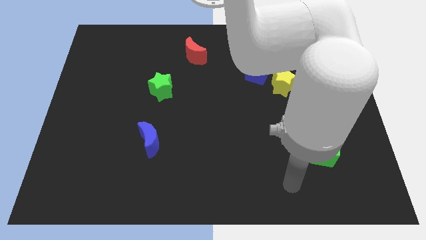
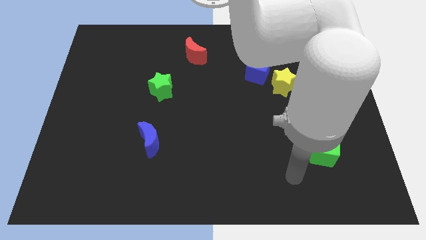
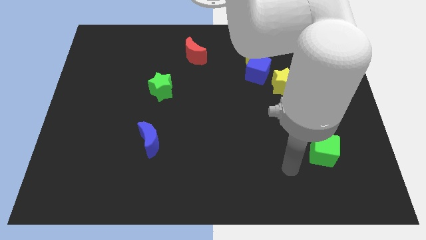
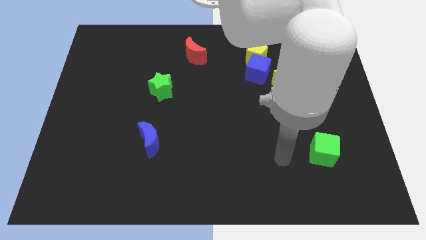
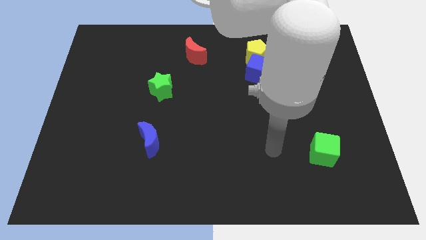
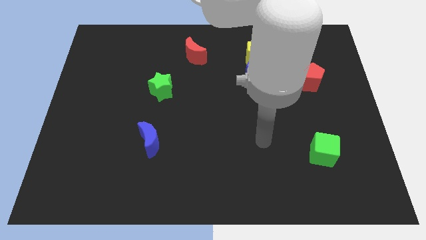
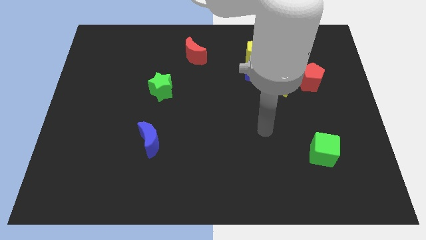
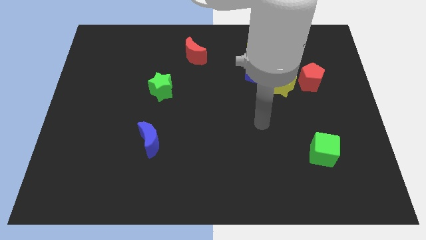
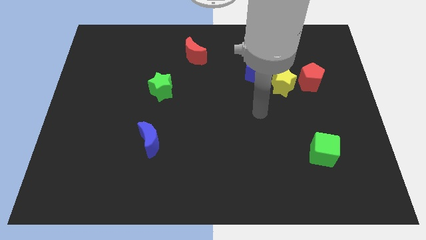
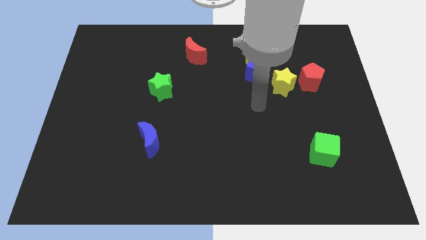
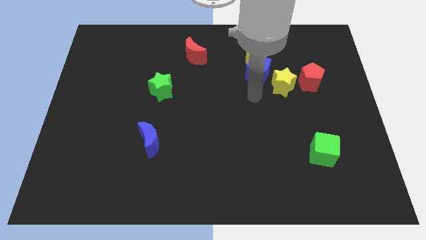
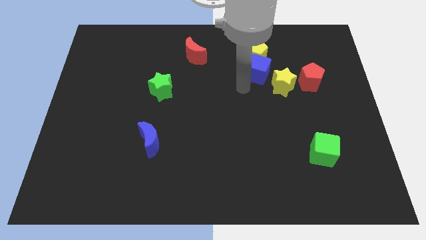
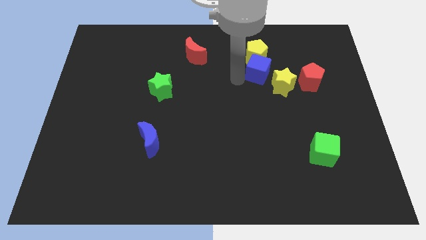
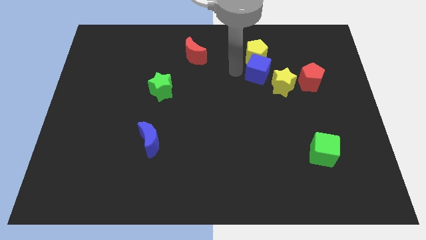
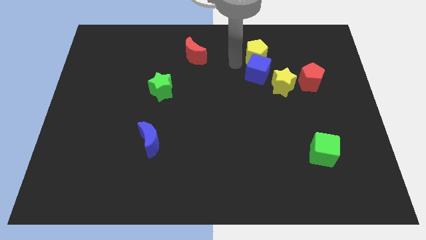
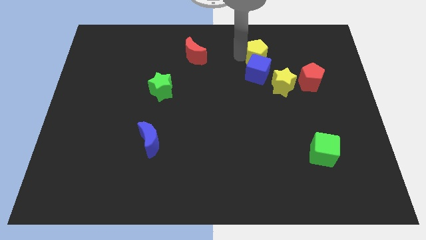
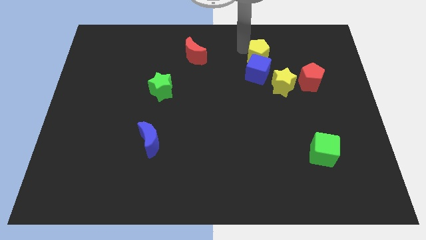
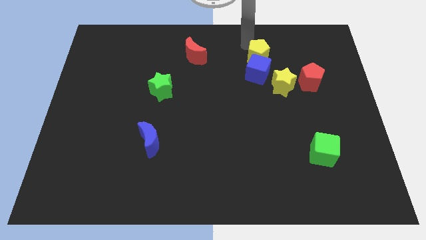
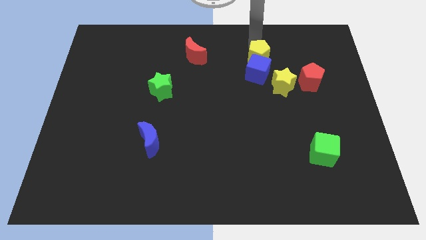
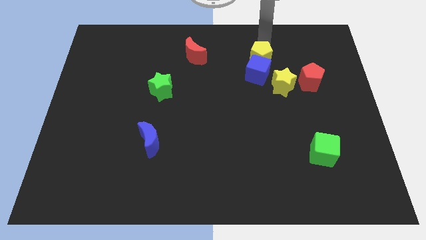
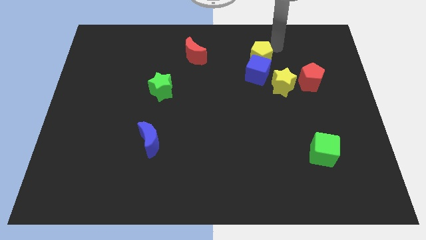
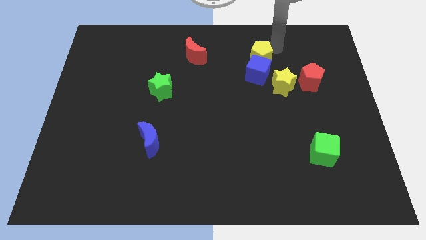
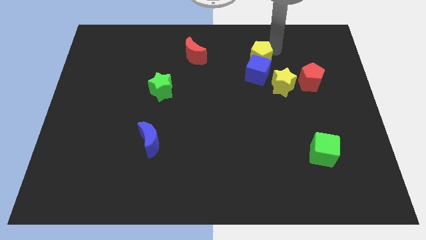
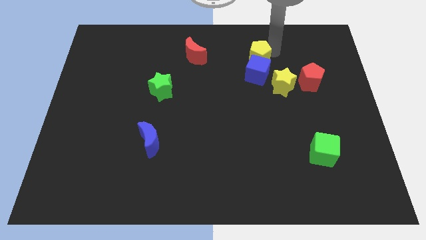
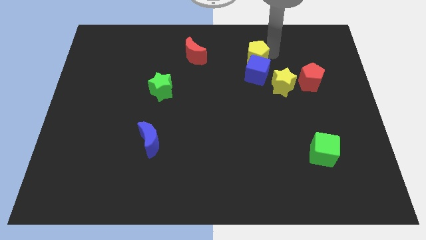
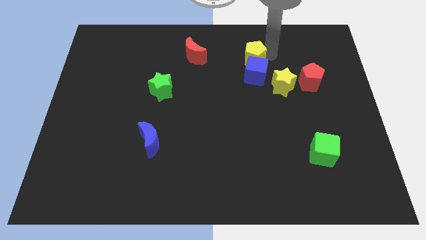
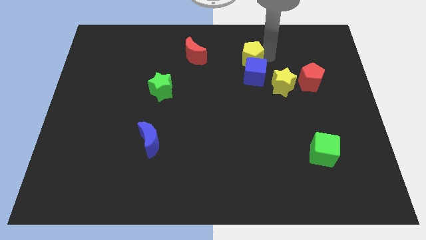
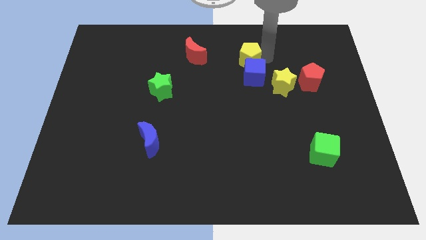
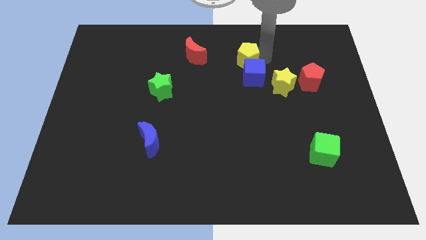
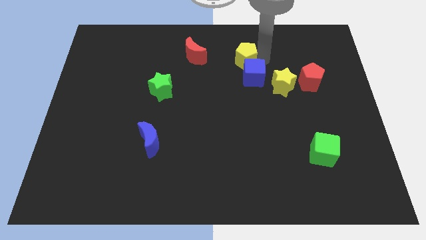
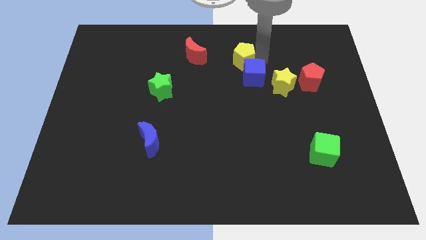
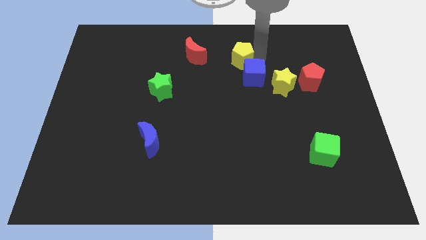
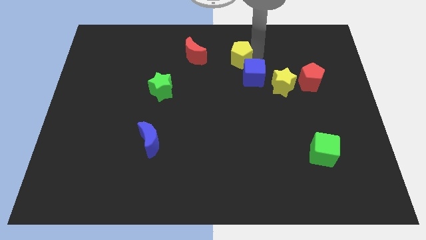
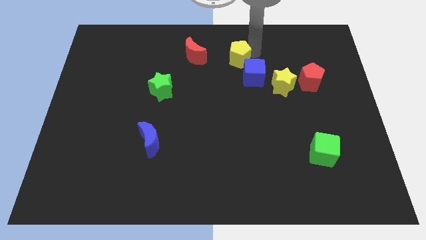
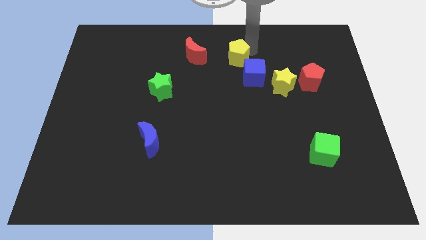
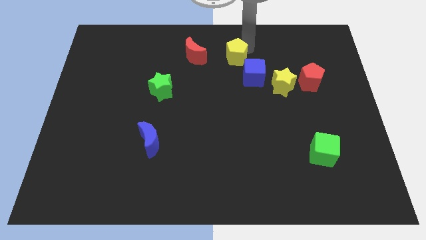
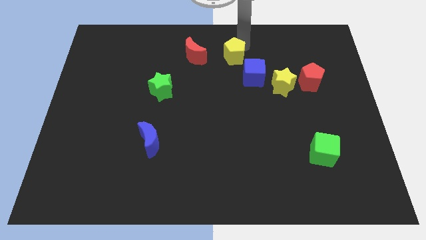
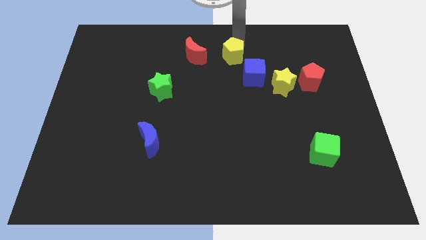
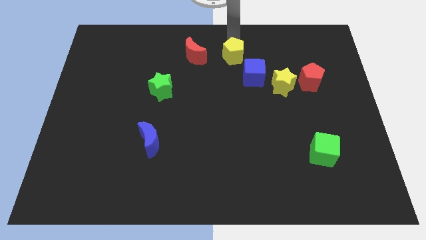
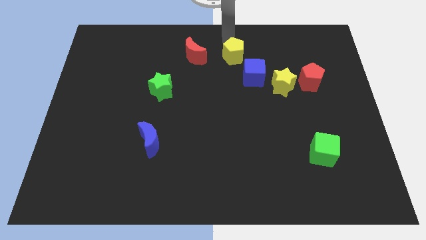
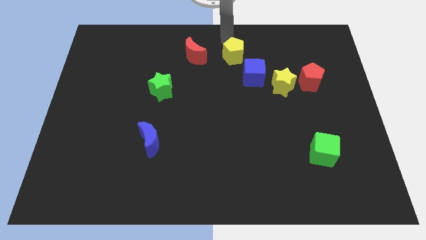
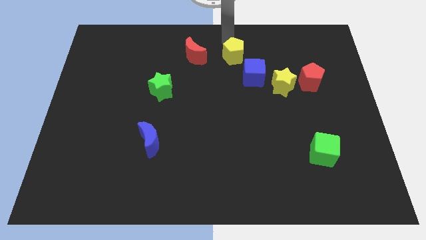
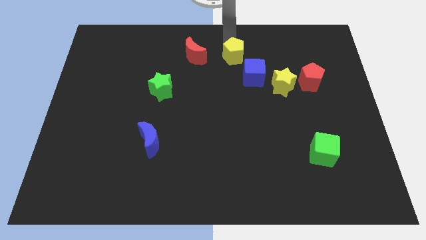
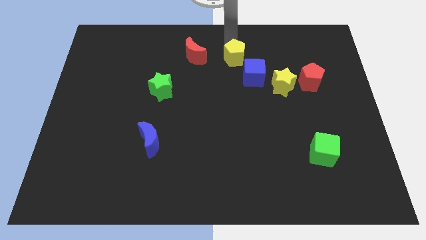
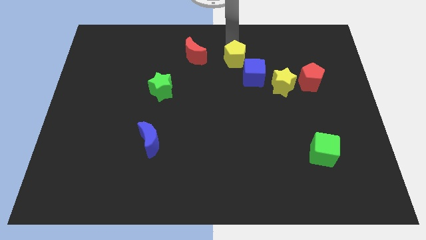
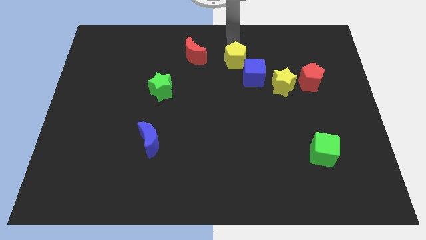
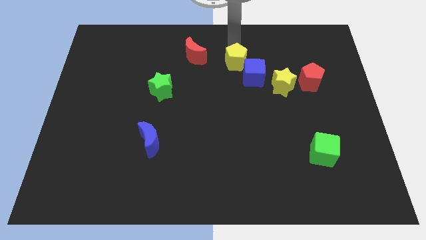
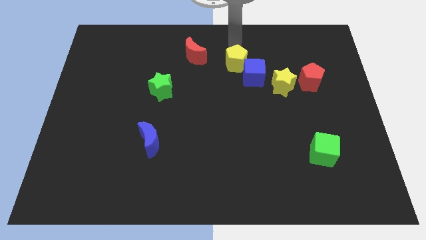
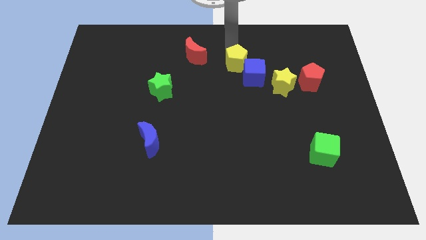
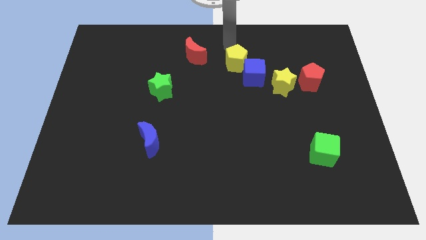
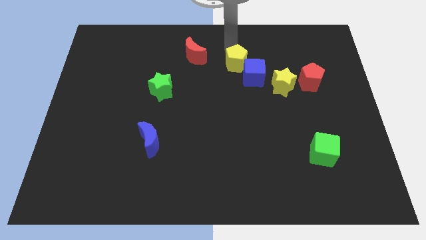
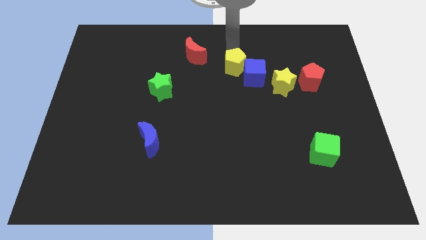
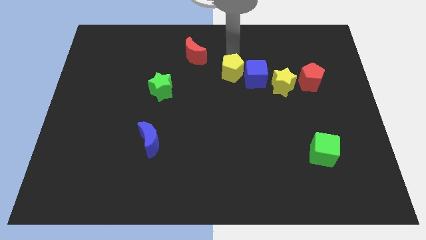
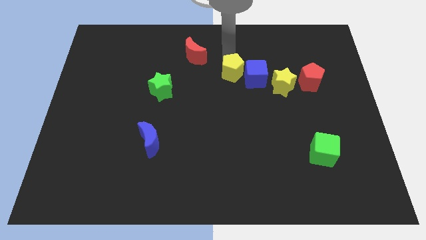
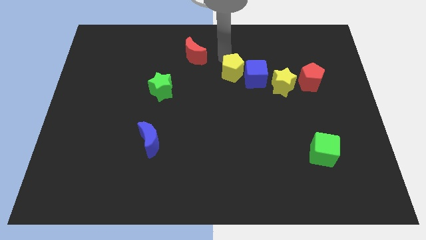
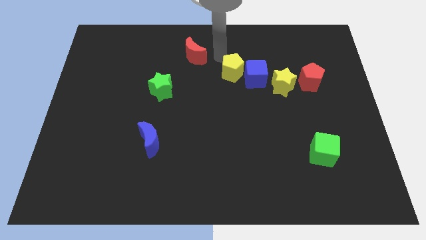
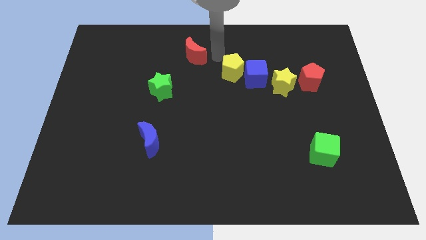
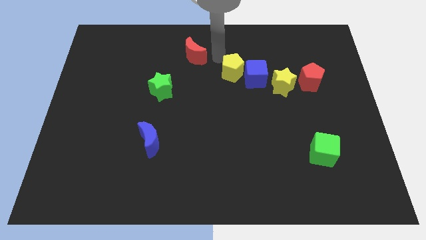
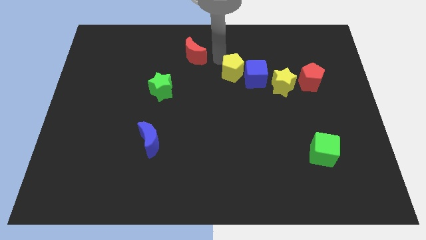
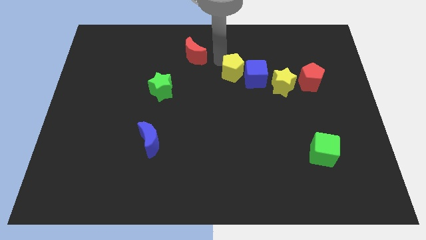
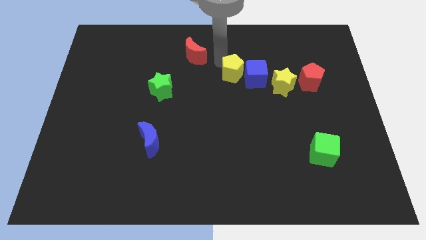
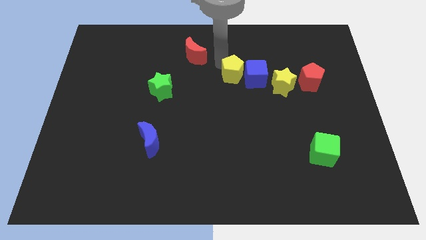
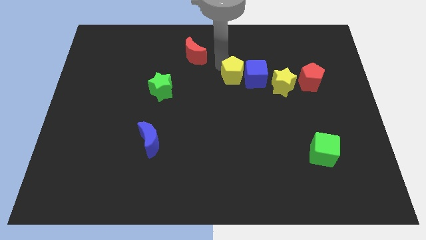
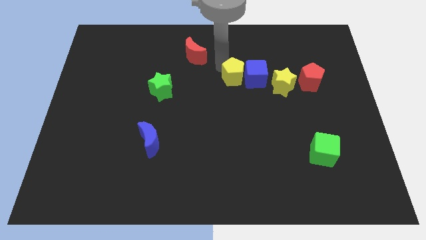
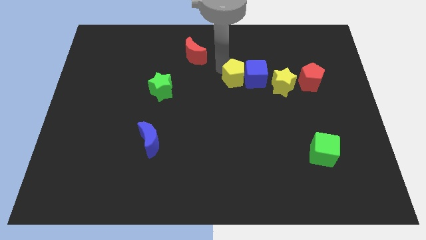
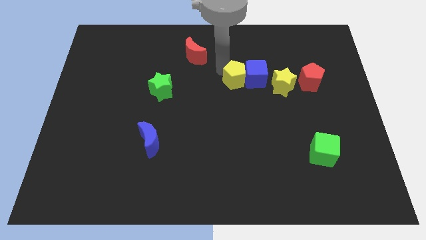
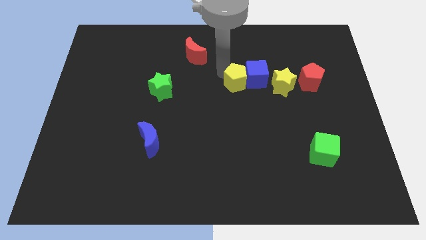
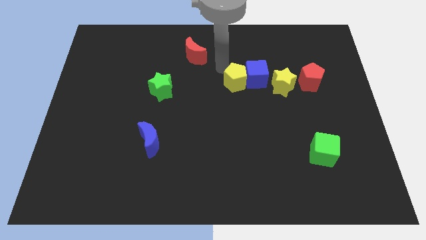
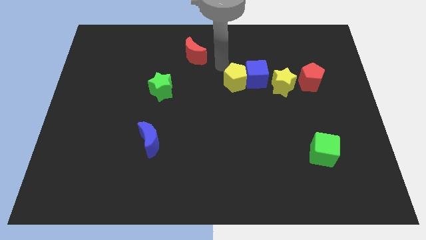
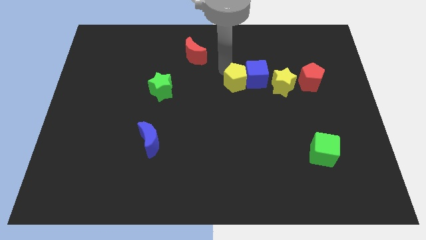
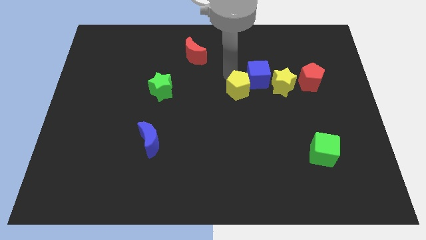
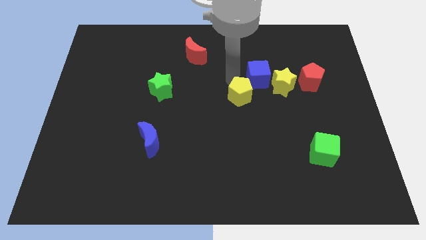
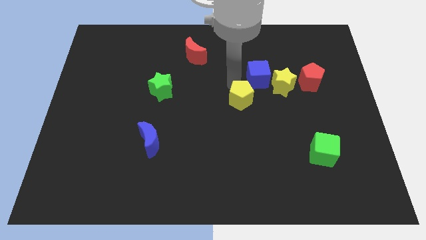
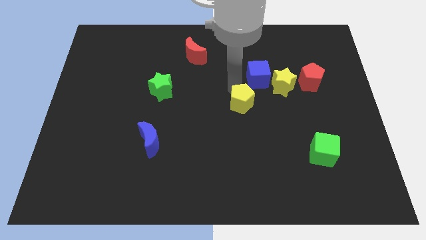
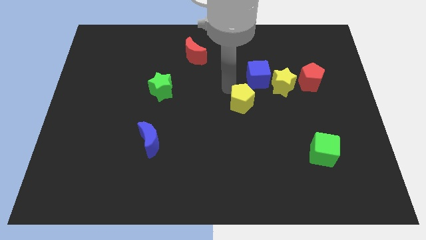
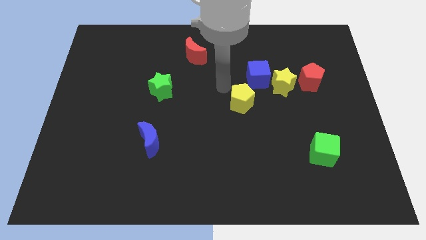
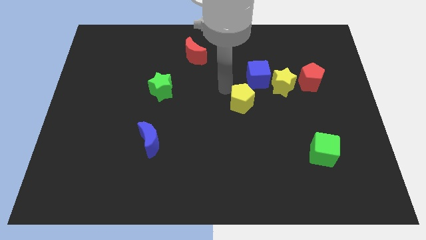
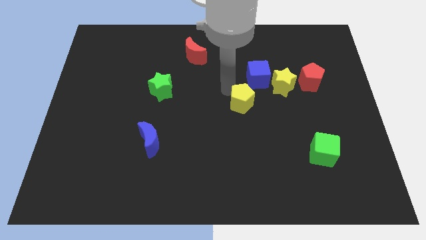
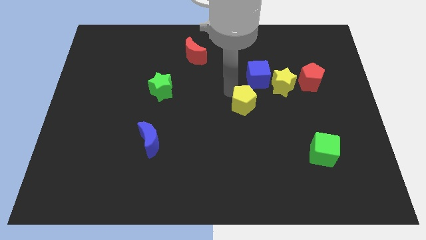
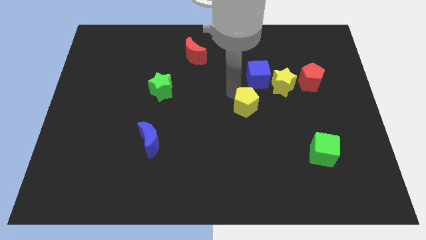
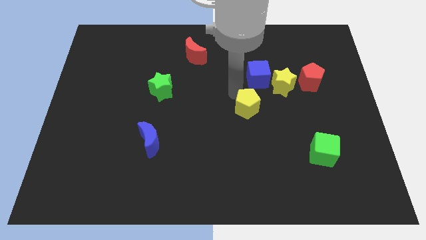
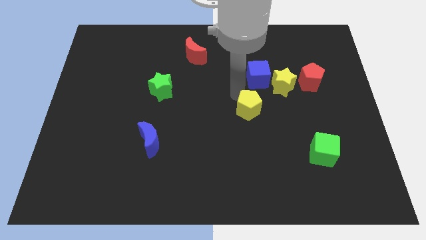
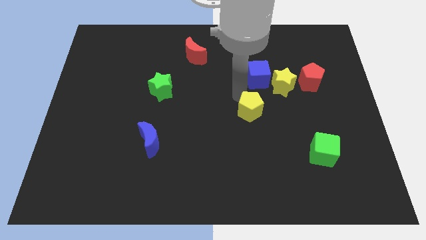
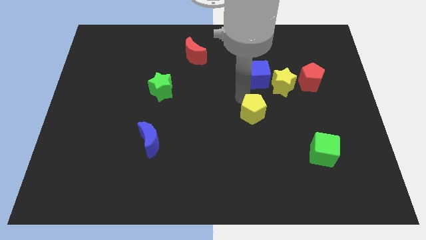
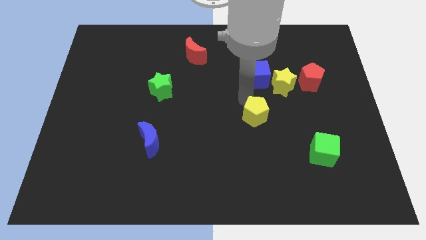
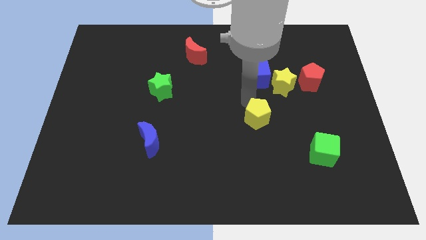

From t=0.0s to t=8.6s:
push the yellow pentagon down
